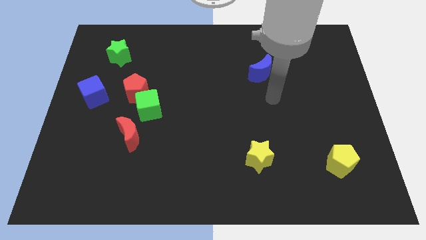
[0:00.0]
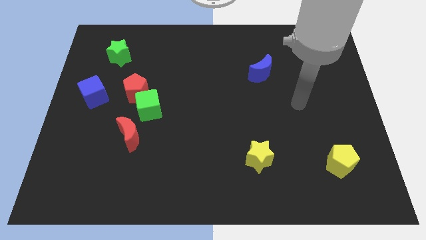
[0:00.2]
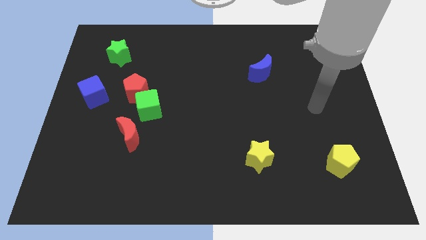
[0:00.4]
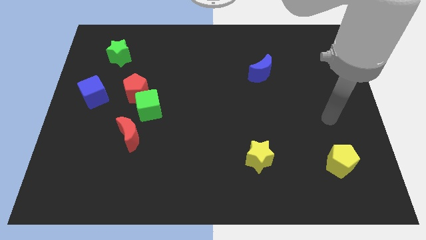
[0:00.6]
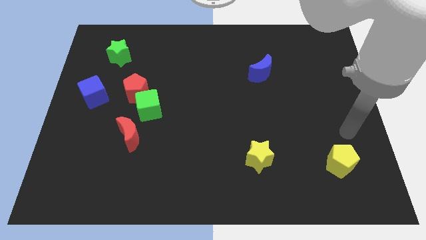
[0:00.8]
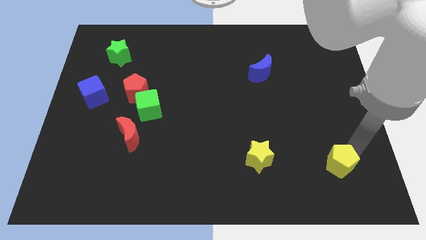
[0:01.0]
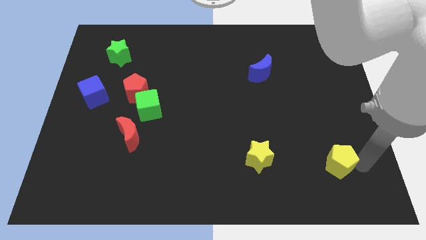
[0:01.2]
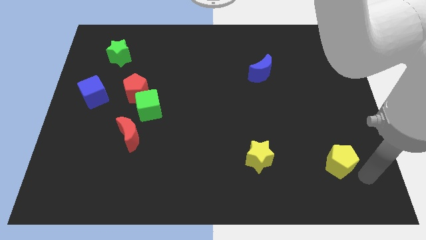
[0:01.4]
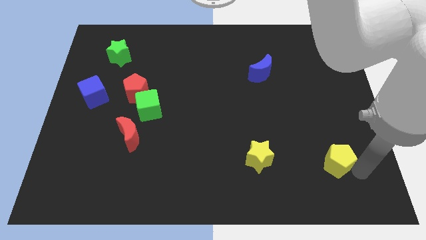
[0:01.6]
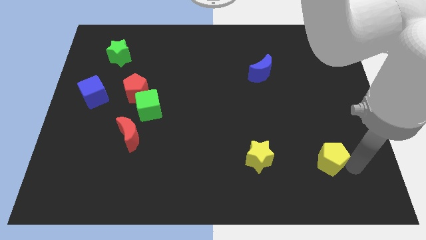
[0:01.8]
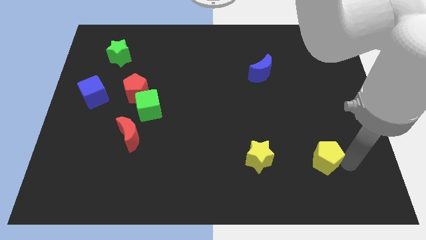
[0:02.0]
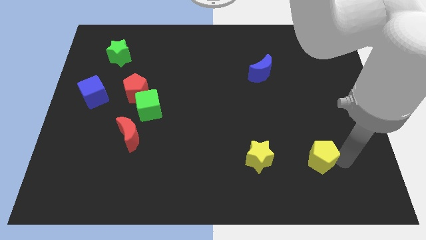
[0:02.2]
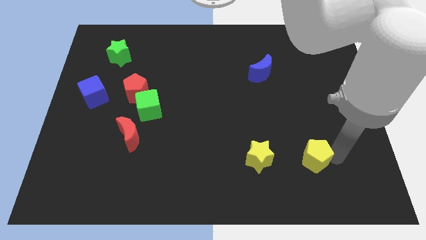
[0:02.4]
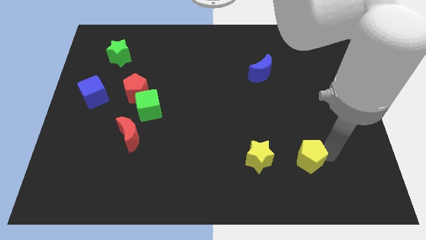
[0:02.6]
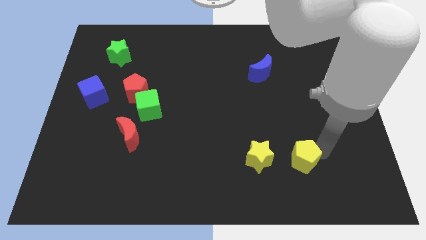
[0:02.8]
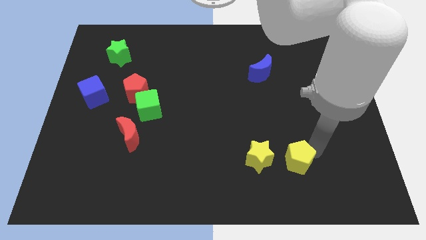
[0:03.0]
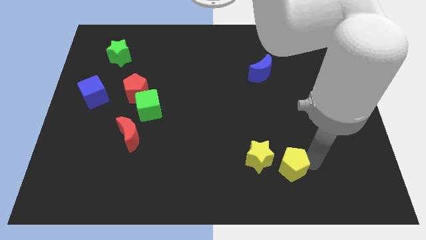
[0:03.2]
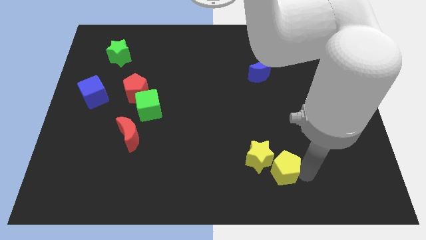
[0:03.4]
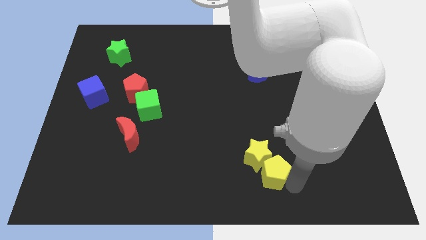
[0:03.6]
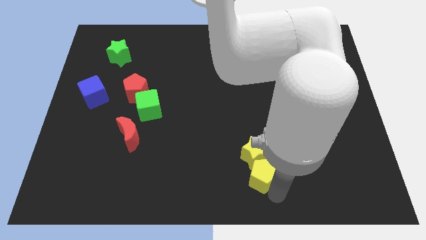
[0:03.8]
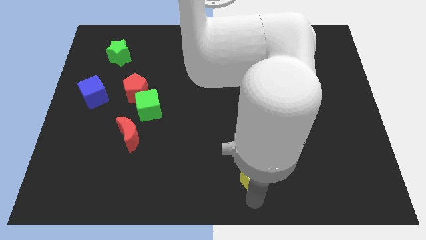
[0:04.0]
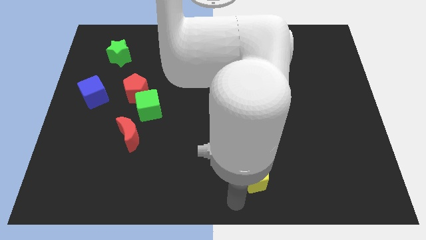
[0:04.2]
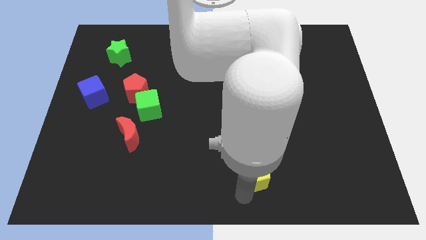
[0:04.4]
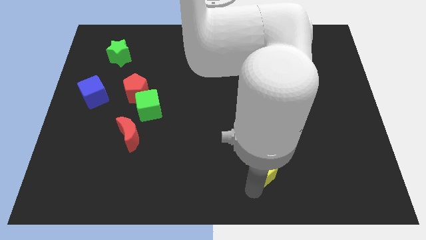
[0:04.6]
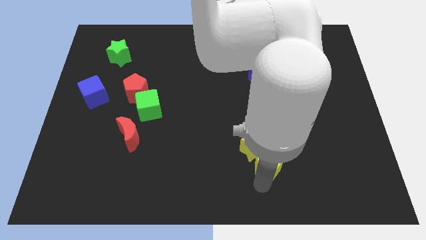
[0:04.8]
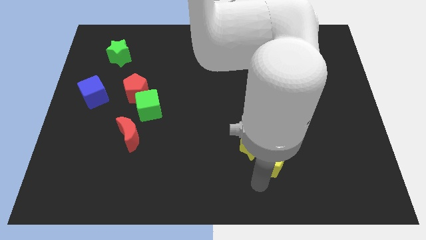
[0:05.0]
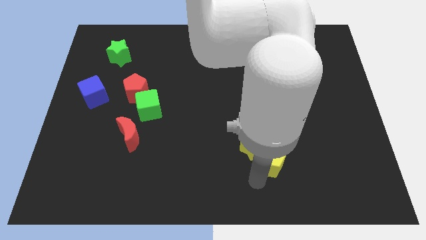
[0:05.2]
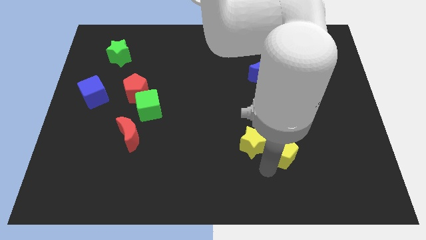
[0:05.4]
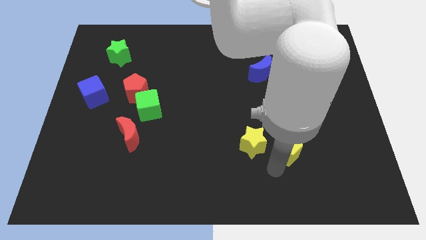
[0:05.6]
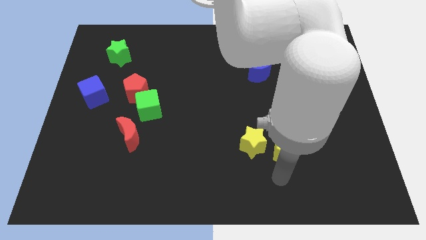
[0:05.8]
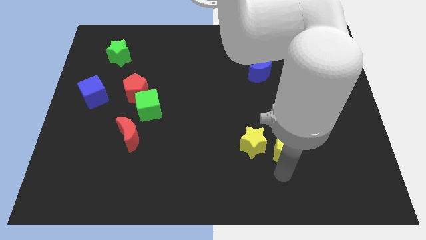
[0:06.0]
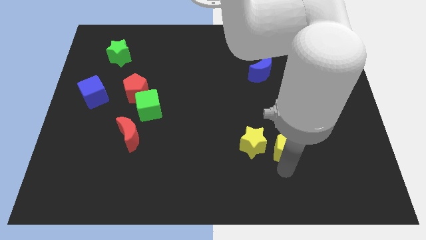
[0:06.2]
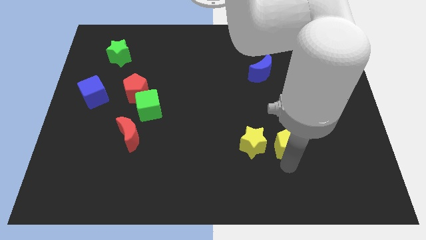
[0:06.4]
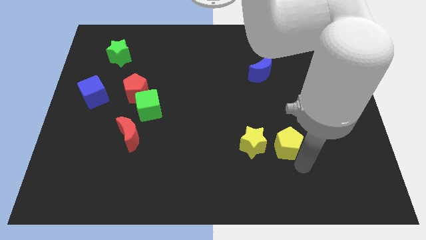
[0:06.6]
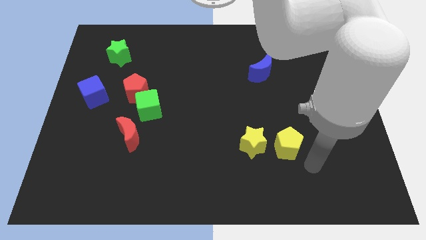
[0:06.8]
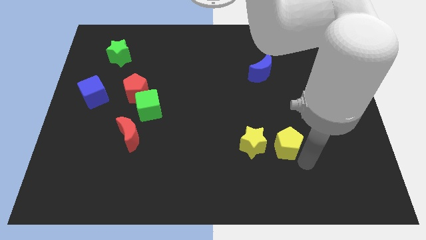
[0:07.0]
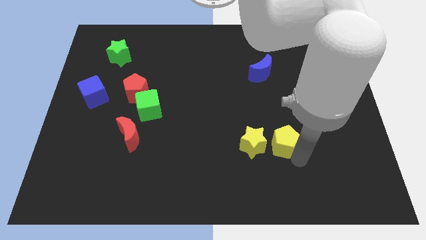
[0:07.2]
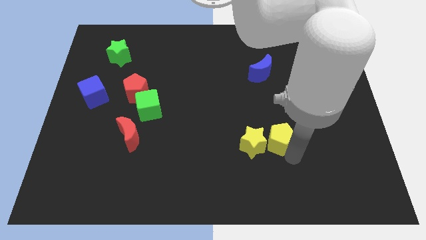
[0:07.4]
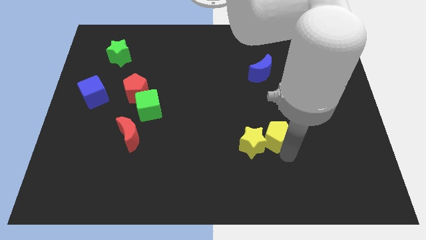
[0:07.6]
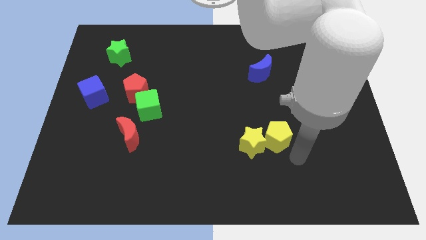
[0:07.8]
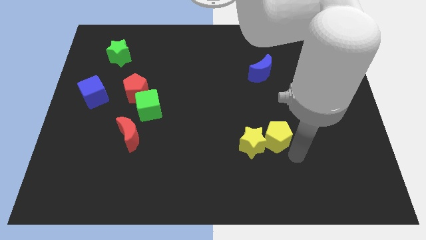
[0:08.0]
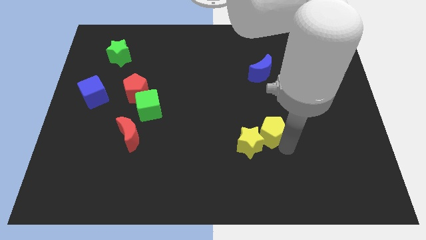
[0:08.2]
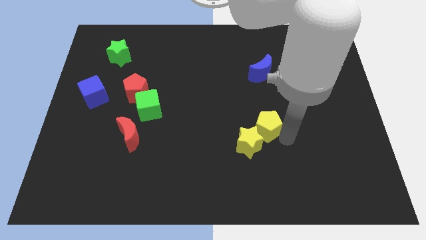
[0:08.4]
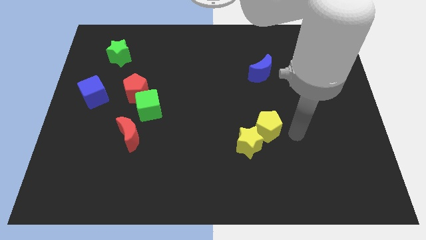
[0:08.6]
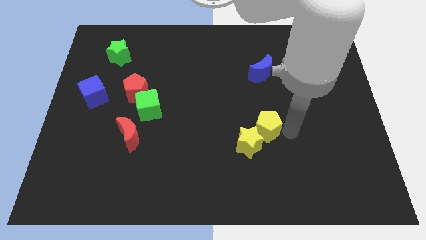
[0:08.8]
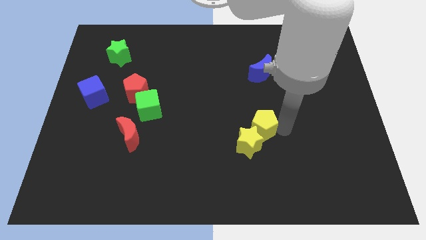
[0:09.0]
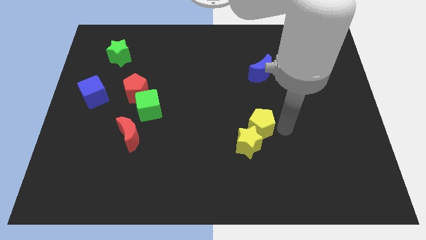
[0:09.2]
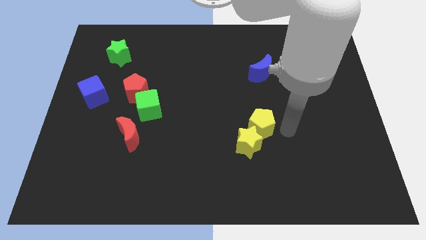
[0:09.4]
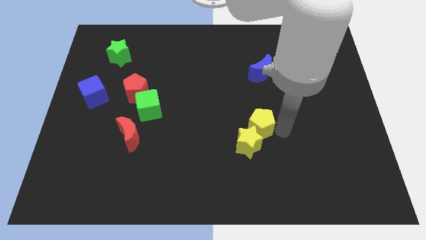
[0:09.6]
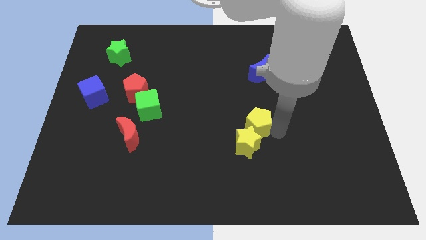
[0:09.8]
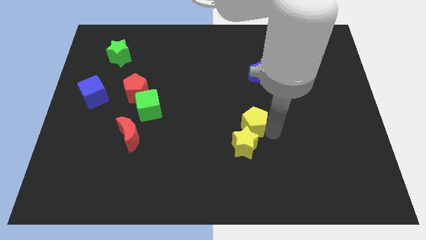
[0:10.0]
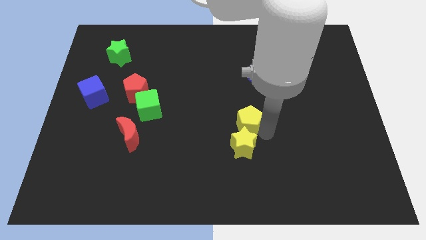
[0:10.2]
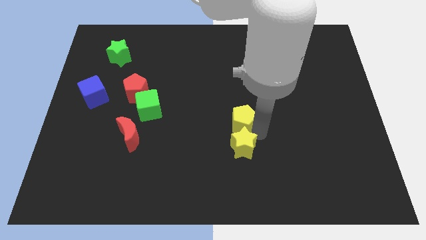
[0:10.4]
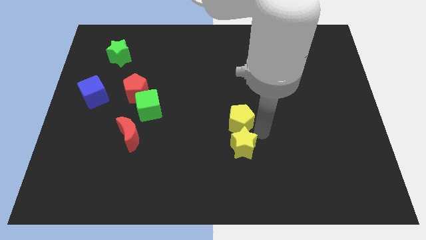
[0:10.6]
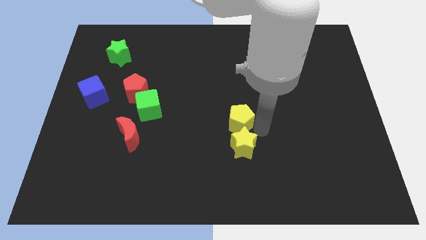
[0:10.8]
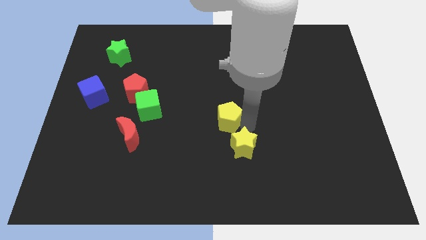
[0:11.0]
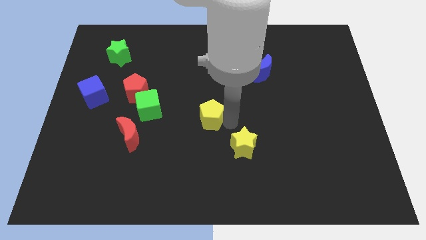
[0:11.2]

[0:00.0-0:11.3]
put the yellow pentagon just right of the green cube
